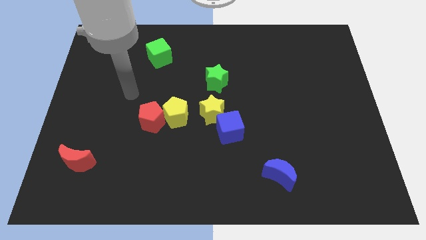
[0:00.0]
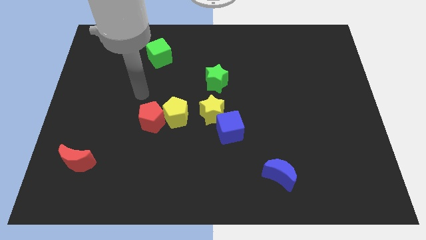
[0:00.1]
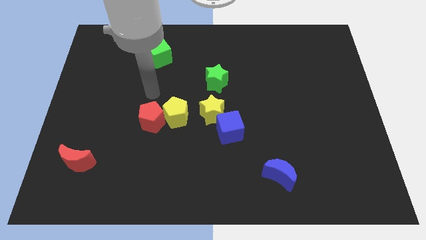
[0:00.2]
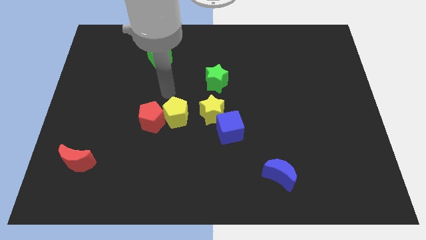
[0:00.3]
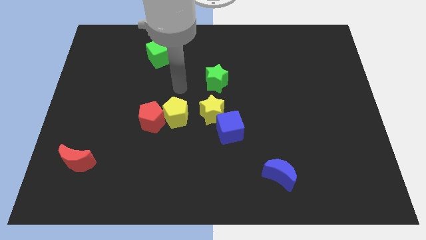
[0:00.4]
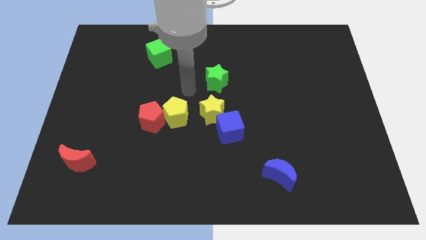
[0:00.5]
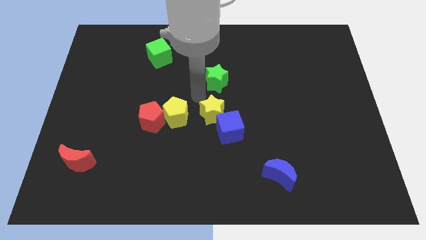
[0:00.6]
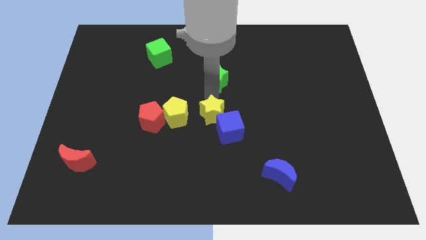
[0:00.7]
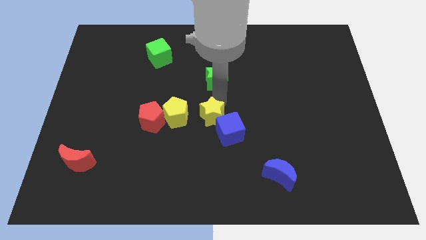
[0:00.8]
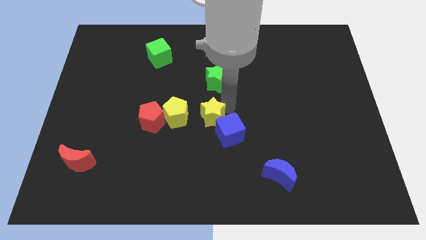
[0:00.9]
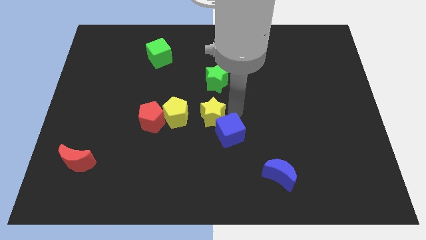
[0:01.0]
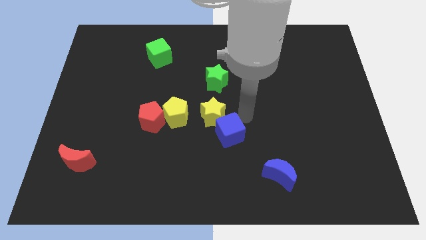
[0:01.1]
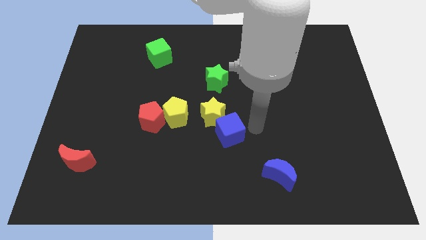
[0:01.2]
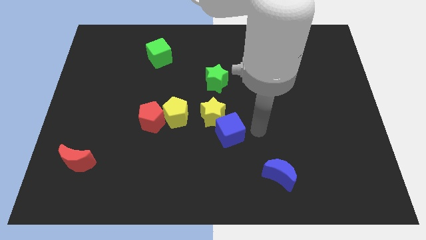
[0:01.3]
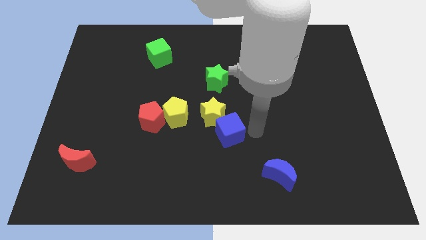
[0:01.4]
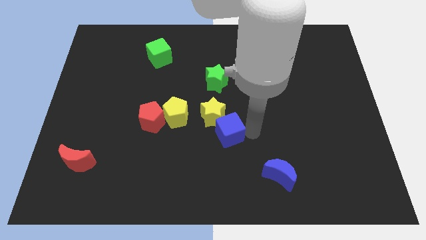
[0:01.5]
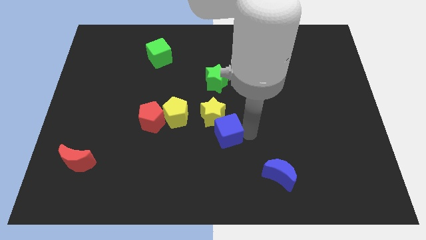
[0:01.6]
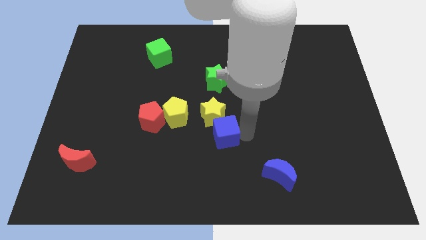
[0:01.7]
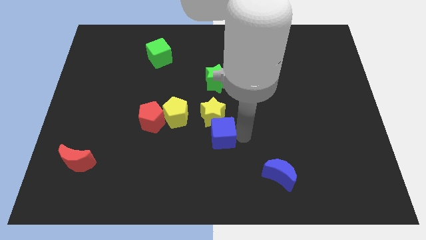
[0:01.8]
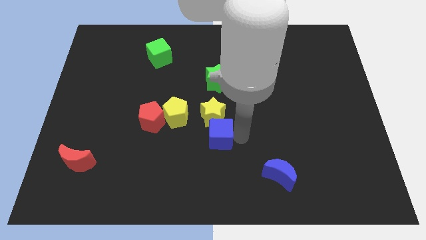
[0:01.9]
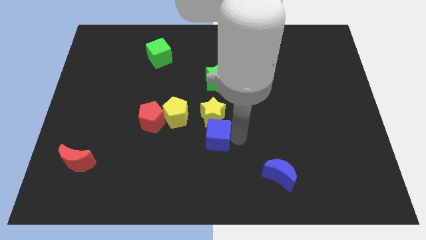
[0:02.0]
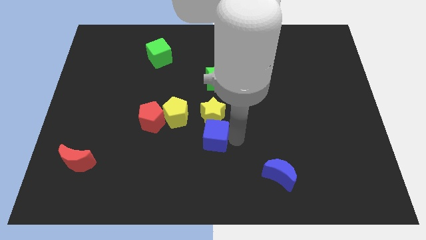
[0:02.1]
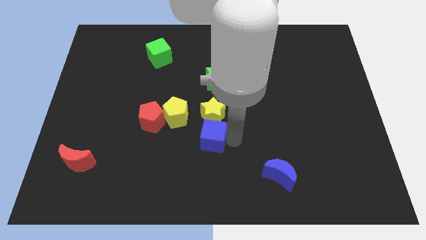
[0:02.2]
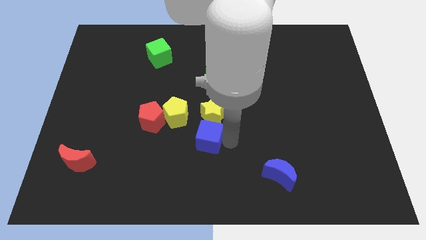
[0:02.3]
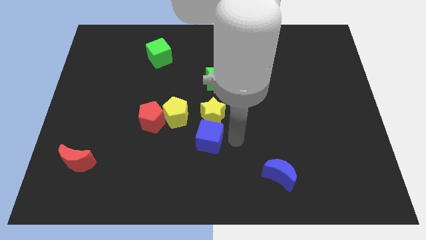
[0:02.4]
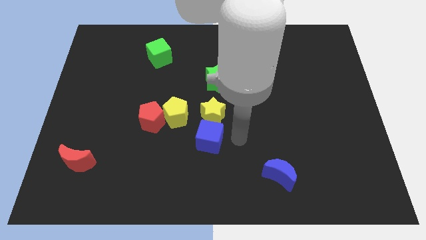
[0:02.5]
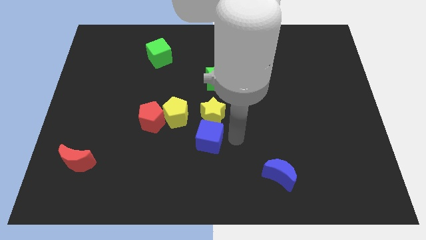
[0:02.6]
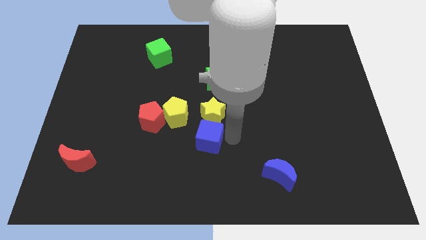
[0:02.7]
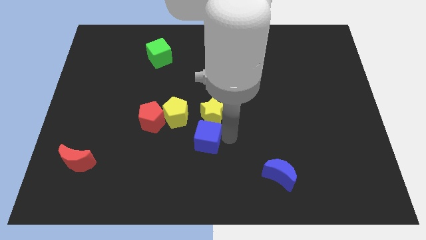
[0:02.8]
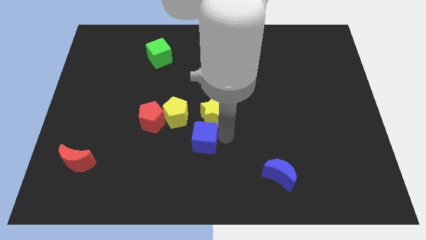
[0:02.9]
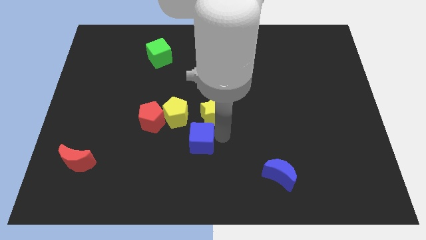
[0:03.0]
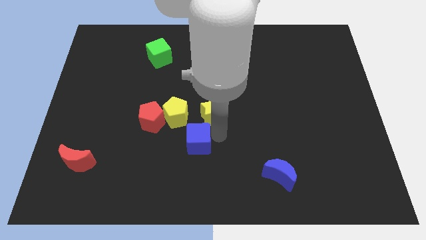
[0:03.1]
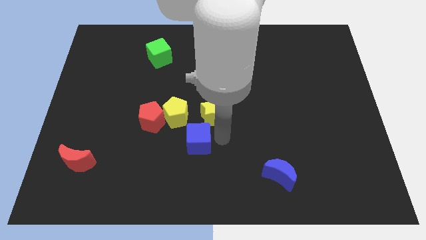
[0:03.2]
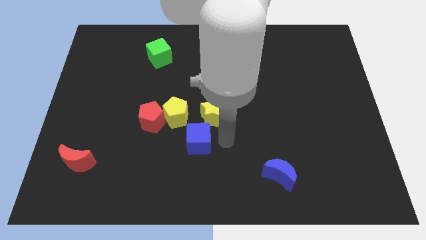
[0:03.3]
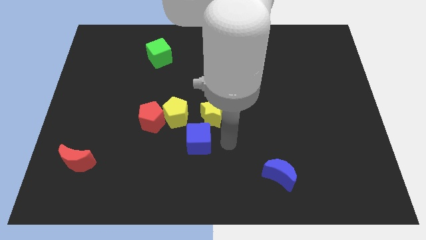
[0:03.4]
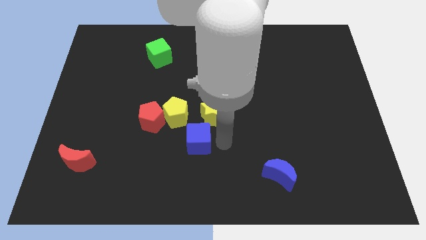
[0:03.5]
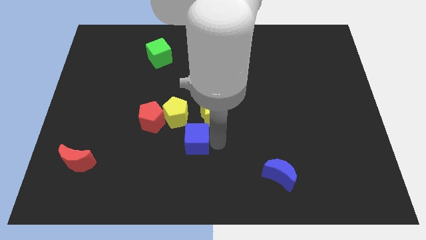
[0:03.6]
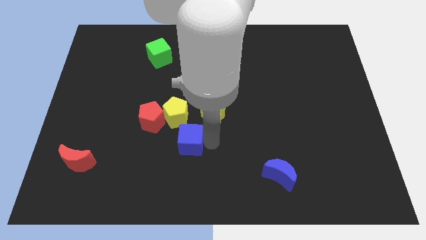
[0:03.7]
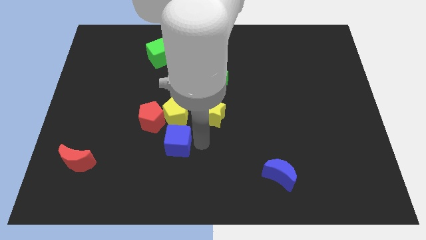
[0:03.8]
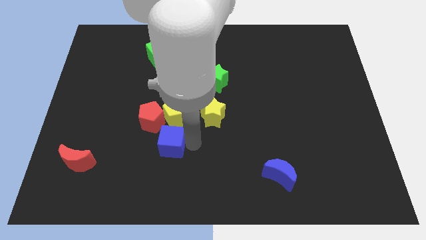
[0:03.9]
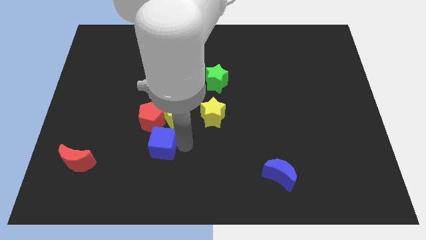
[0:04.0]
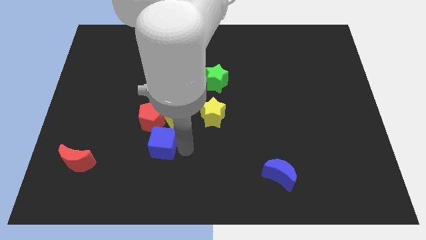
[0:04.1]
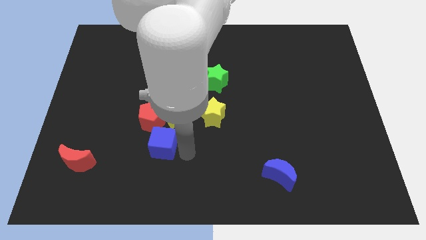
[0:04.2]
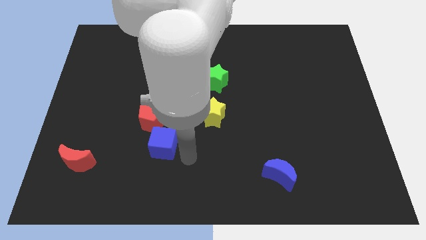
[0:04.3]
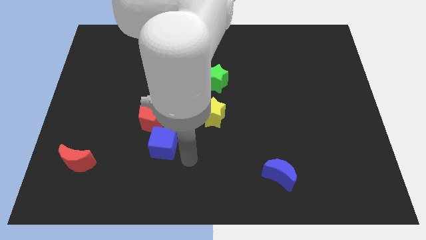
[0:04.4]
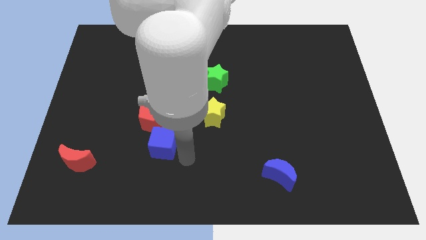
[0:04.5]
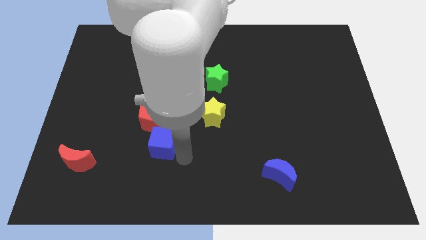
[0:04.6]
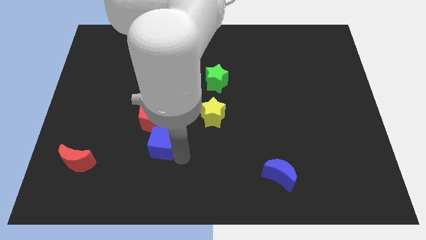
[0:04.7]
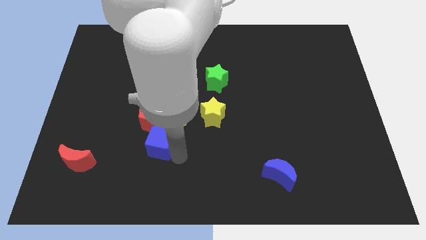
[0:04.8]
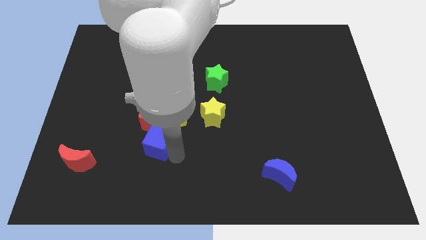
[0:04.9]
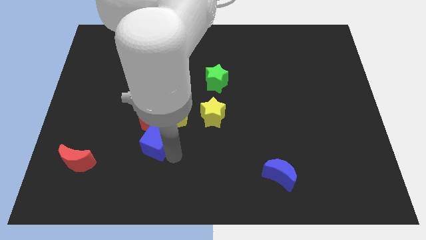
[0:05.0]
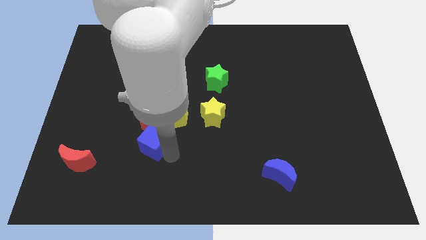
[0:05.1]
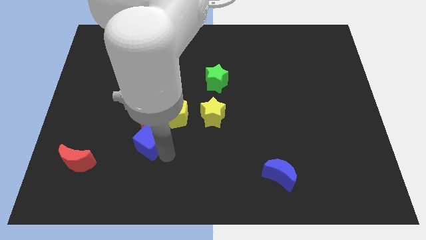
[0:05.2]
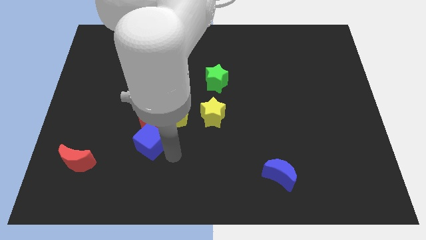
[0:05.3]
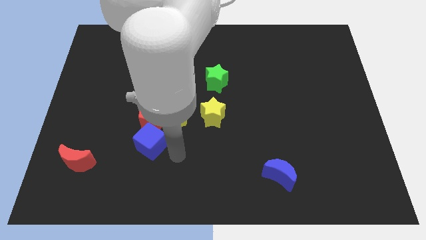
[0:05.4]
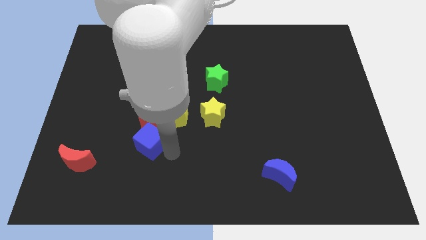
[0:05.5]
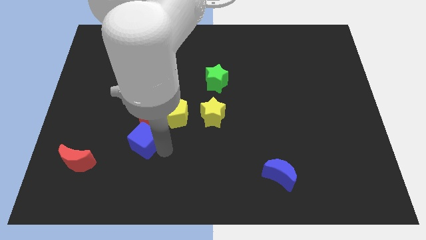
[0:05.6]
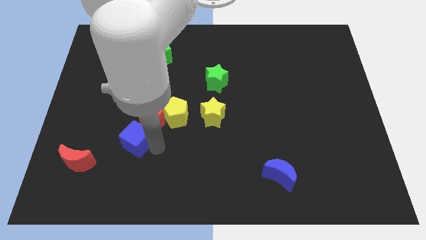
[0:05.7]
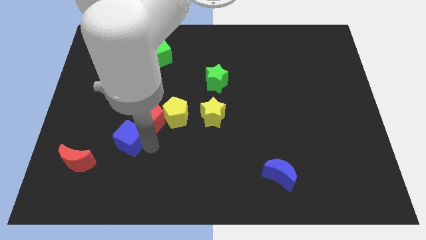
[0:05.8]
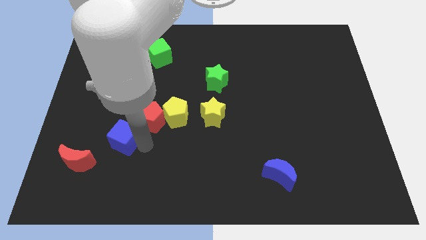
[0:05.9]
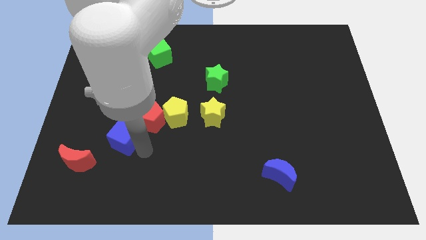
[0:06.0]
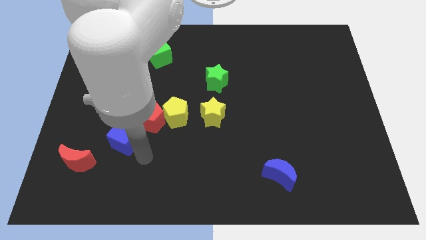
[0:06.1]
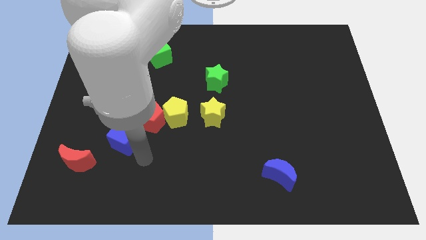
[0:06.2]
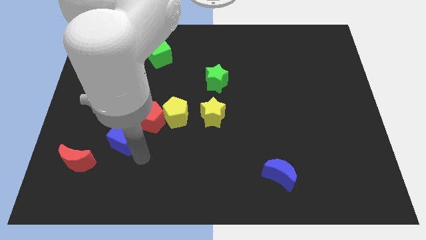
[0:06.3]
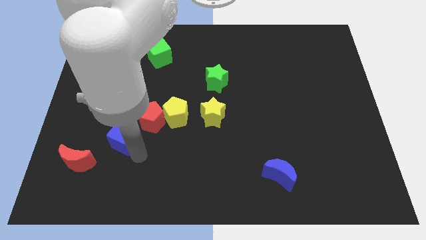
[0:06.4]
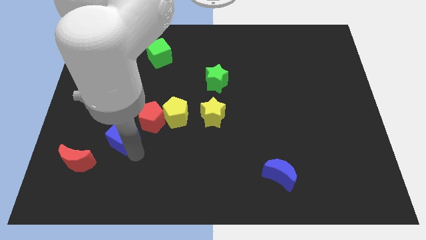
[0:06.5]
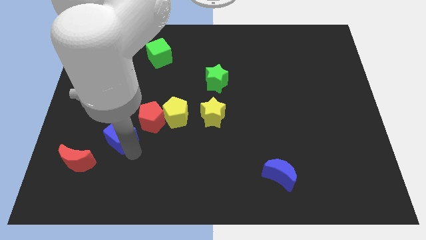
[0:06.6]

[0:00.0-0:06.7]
put the blue cube to the left of the red pentagon

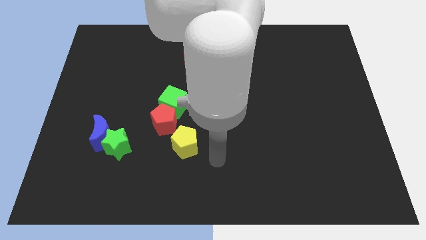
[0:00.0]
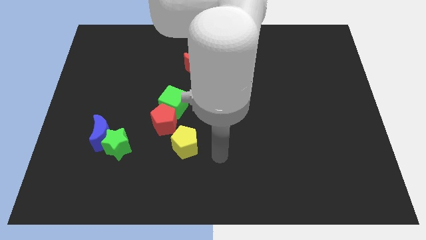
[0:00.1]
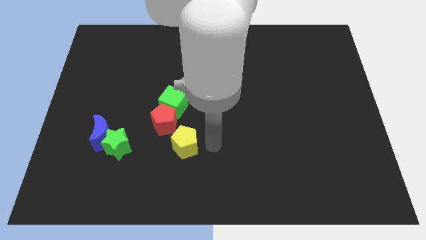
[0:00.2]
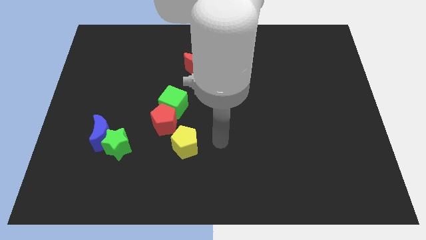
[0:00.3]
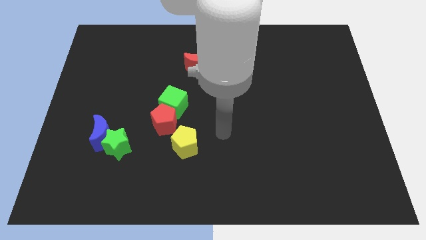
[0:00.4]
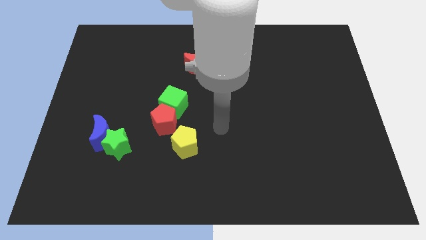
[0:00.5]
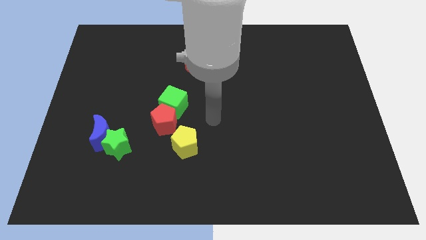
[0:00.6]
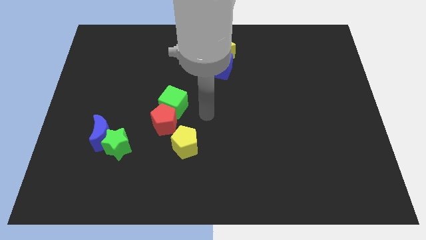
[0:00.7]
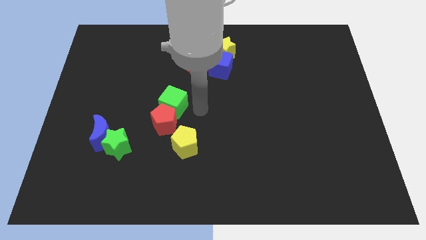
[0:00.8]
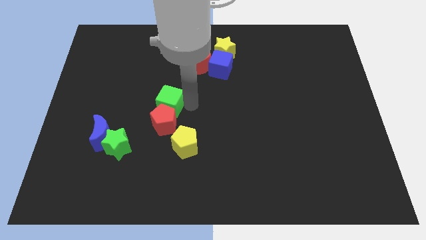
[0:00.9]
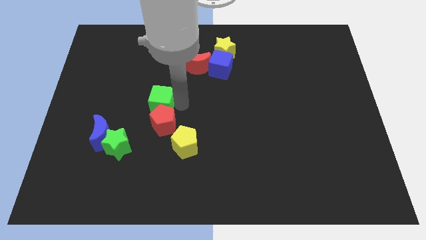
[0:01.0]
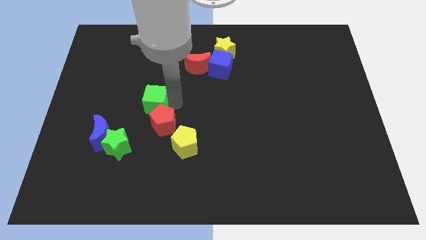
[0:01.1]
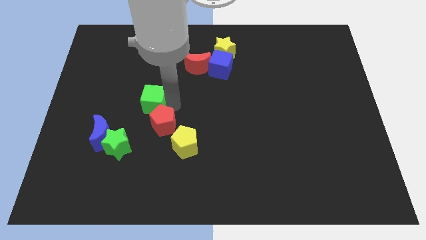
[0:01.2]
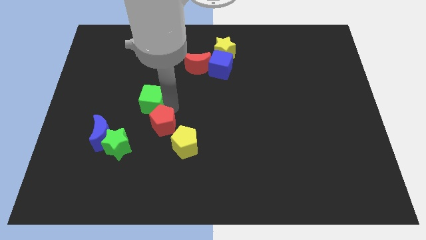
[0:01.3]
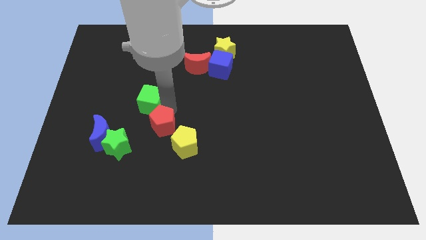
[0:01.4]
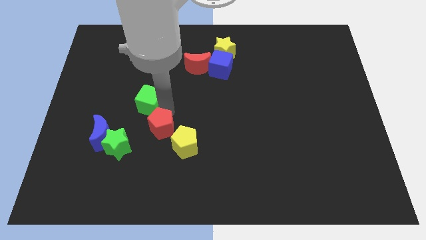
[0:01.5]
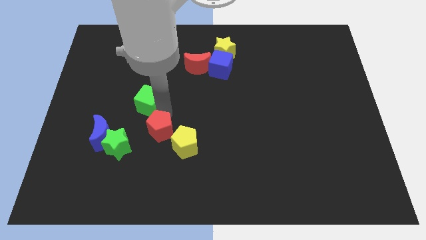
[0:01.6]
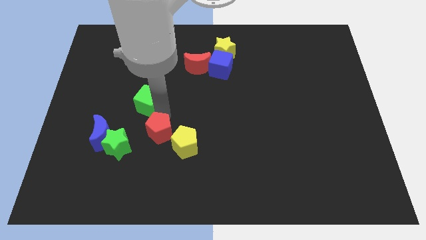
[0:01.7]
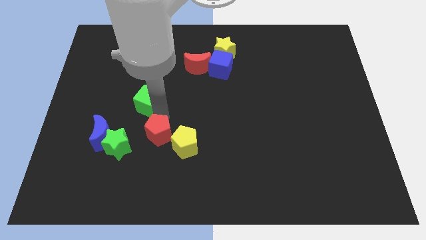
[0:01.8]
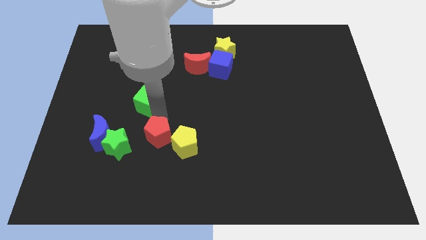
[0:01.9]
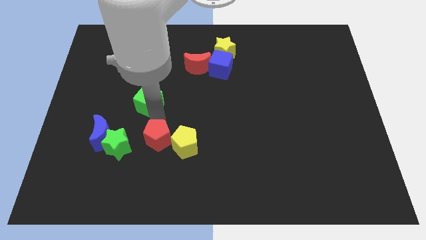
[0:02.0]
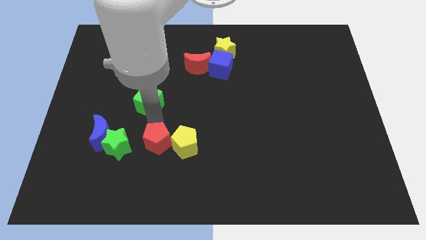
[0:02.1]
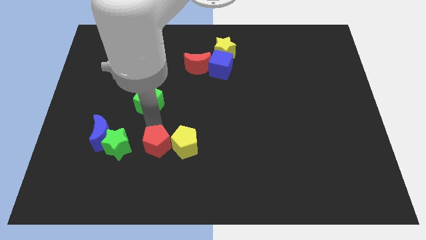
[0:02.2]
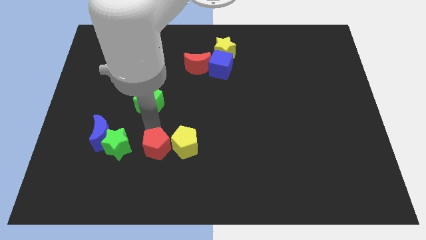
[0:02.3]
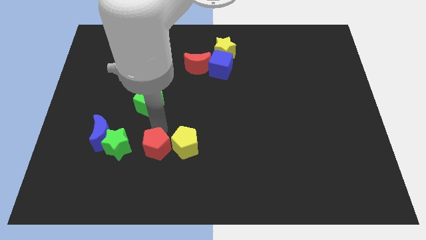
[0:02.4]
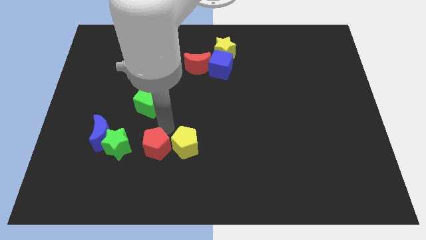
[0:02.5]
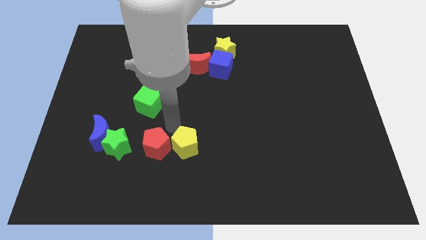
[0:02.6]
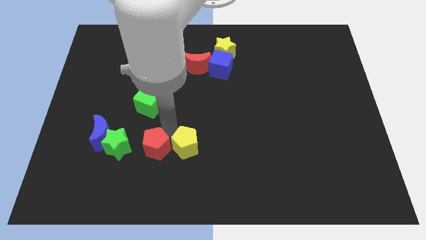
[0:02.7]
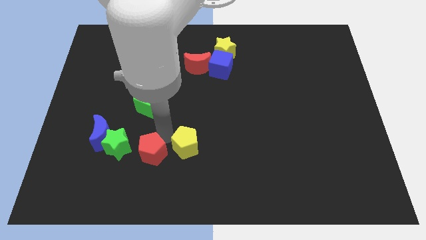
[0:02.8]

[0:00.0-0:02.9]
move the red pentagon to the bottom right of the green star
